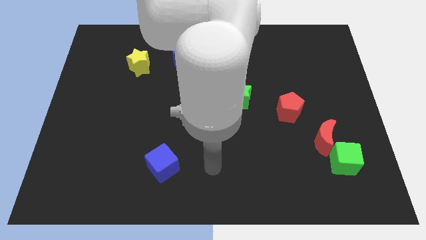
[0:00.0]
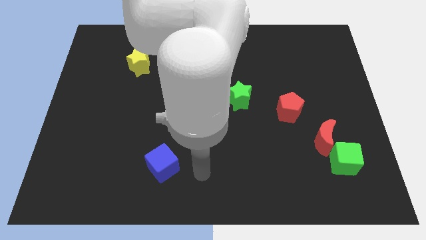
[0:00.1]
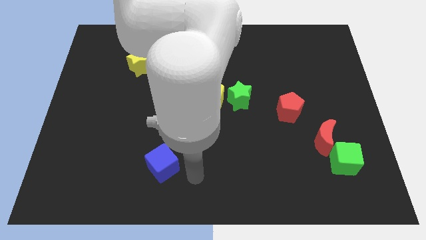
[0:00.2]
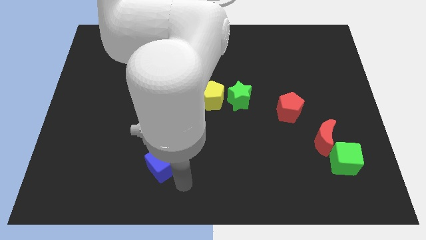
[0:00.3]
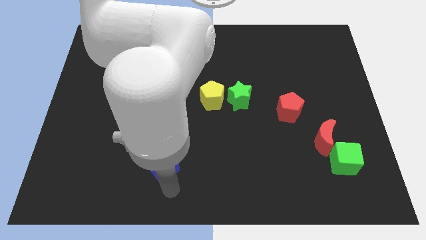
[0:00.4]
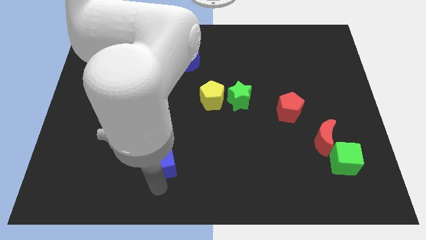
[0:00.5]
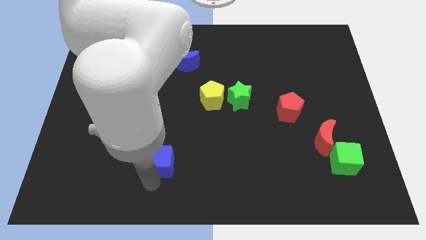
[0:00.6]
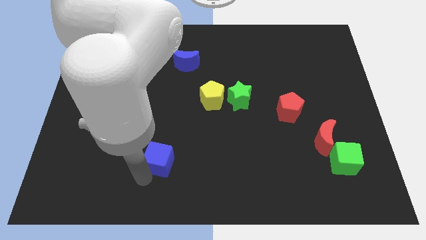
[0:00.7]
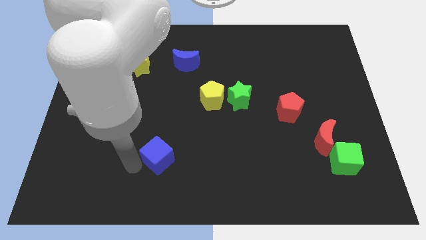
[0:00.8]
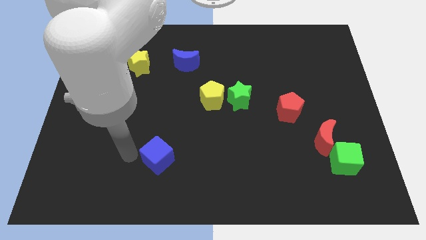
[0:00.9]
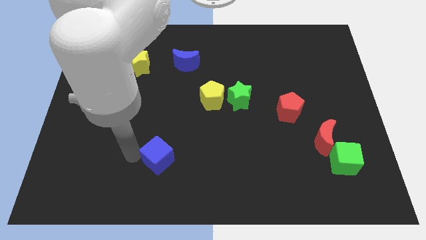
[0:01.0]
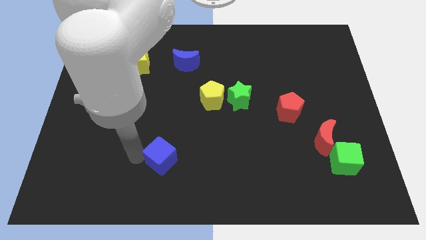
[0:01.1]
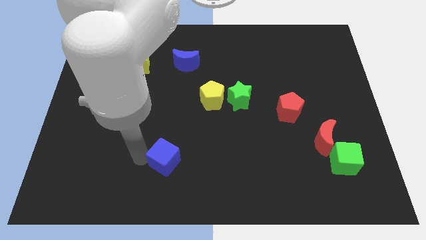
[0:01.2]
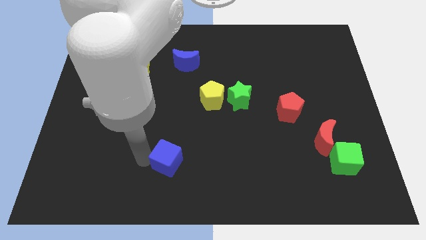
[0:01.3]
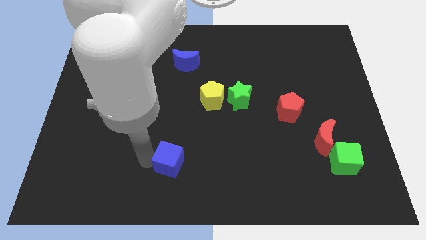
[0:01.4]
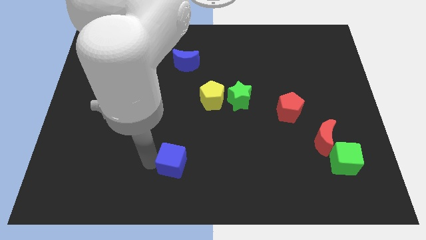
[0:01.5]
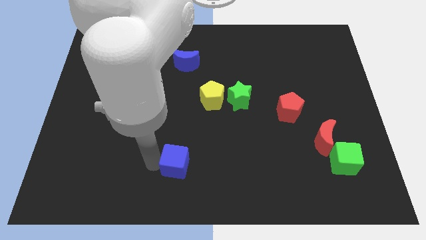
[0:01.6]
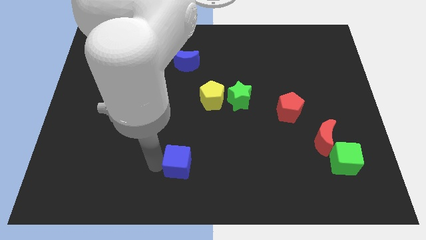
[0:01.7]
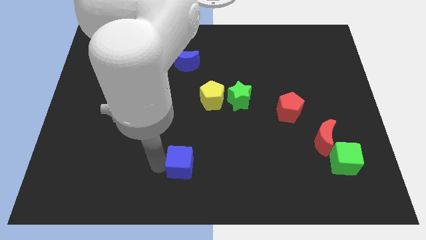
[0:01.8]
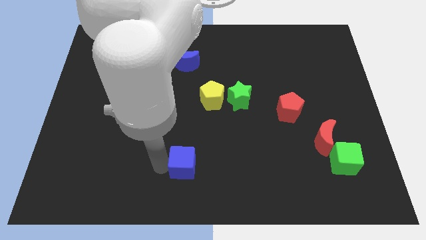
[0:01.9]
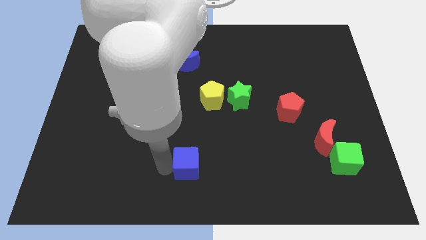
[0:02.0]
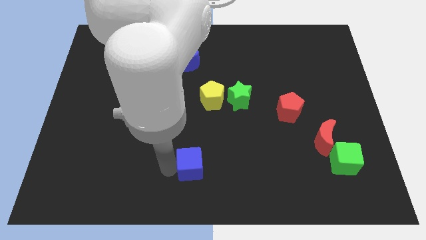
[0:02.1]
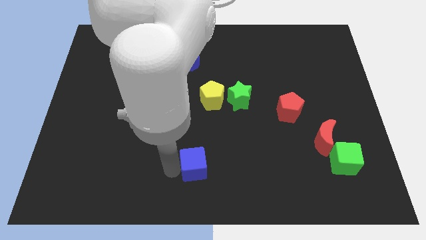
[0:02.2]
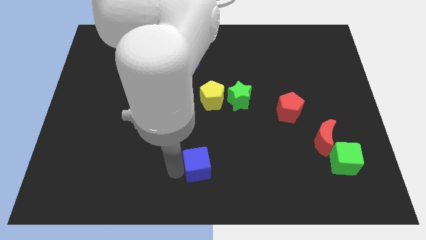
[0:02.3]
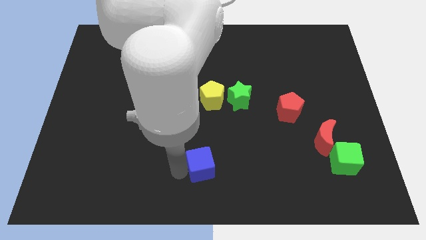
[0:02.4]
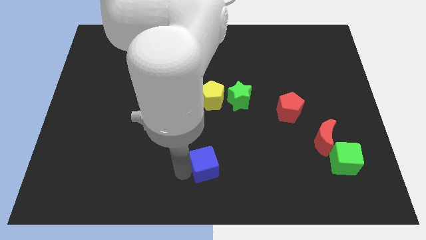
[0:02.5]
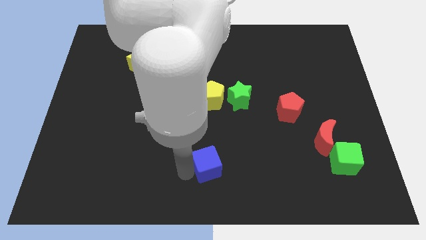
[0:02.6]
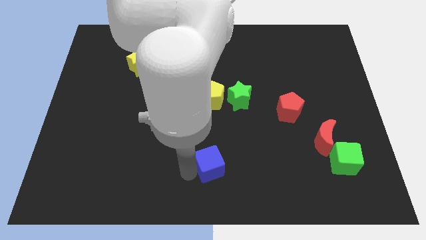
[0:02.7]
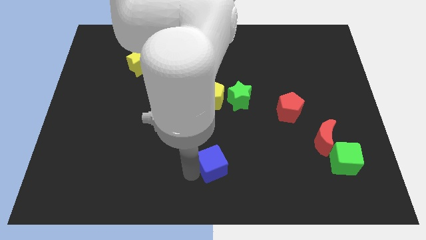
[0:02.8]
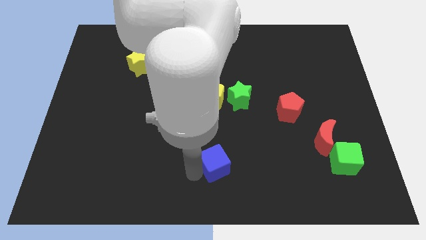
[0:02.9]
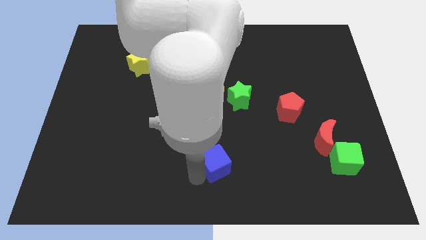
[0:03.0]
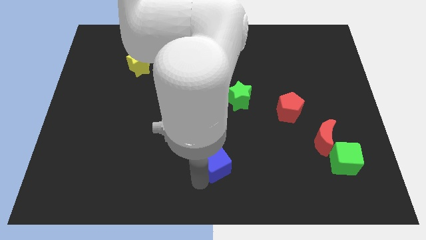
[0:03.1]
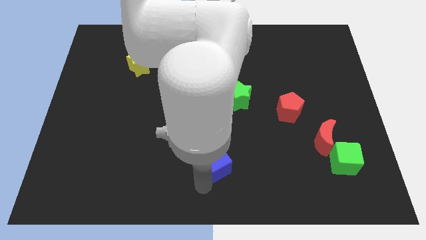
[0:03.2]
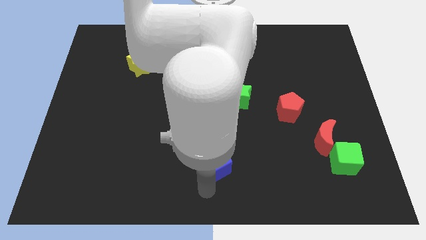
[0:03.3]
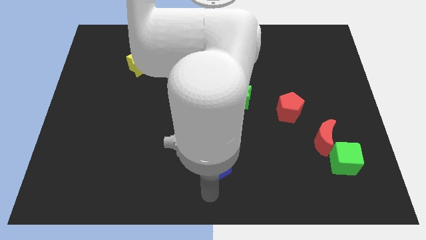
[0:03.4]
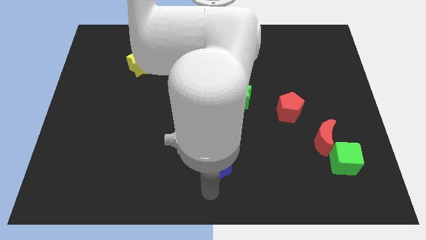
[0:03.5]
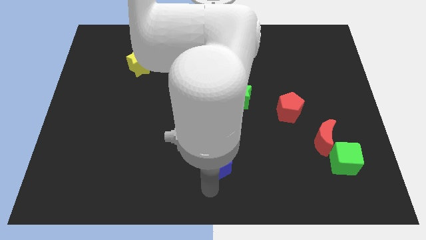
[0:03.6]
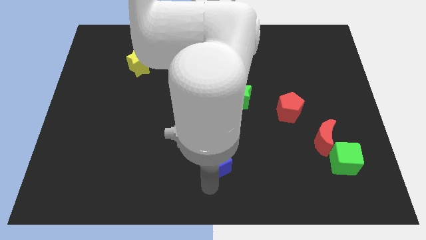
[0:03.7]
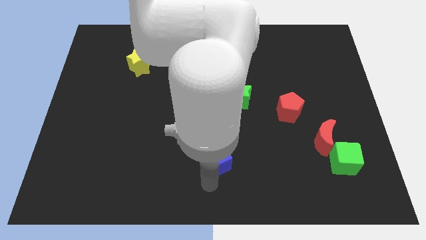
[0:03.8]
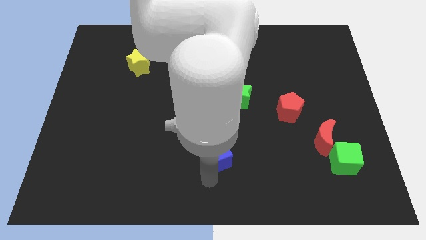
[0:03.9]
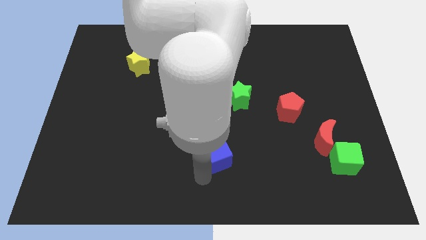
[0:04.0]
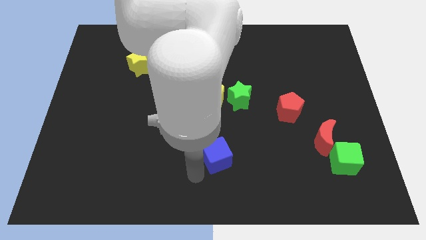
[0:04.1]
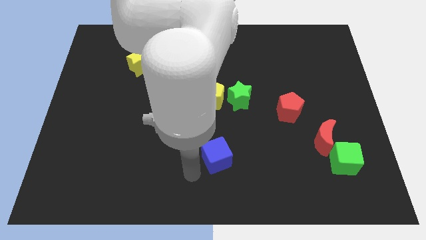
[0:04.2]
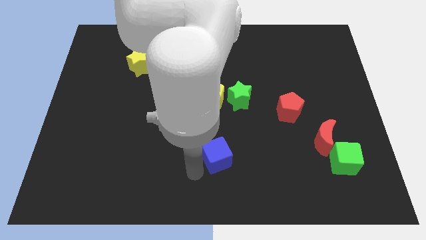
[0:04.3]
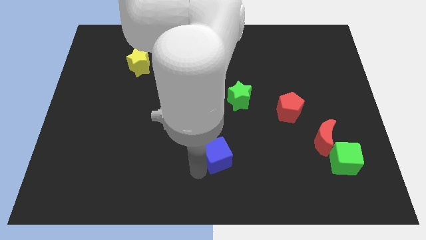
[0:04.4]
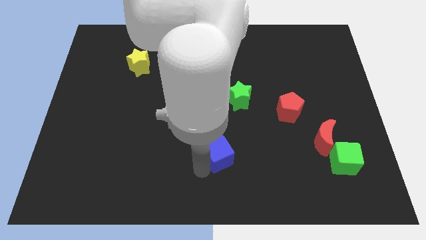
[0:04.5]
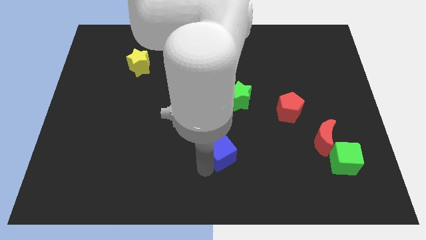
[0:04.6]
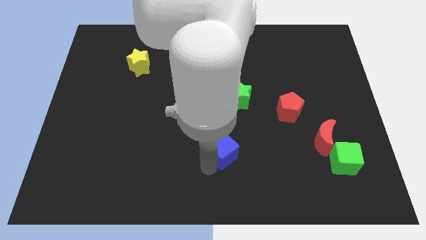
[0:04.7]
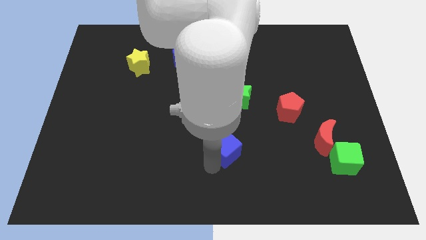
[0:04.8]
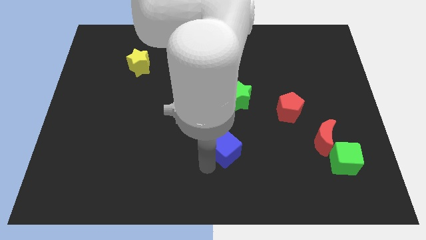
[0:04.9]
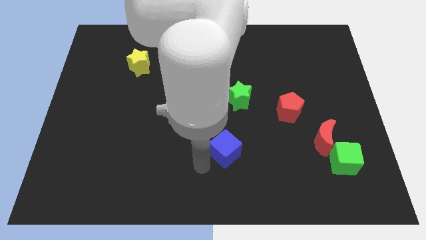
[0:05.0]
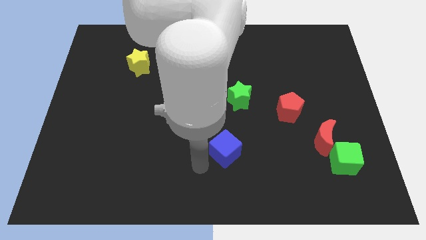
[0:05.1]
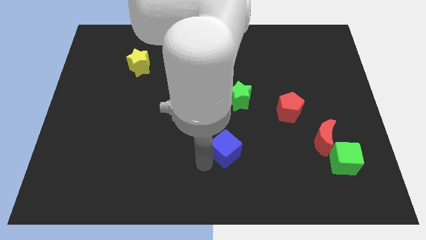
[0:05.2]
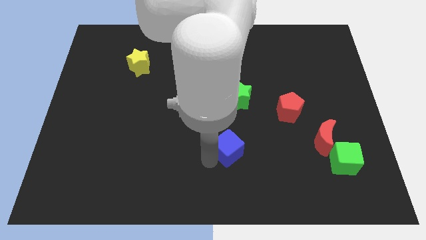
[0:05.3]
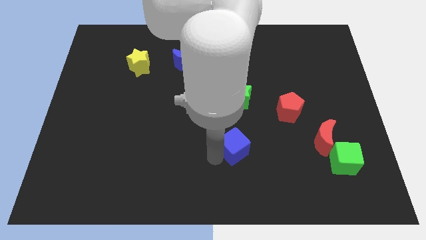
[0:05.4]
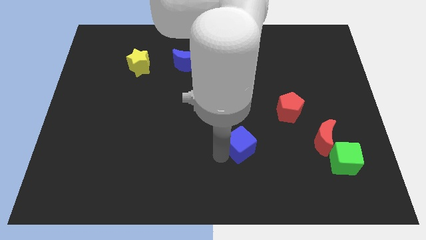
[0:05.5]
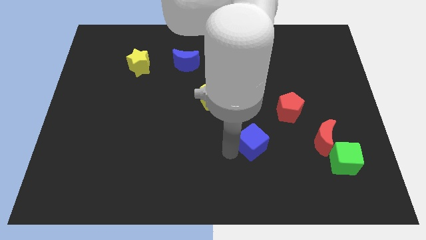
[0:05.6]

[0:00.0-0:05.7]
move the blue cube to the bottom left of the red pentagon

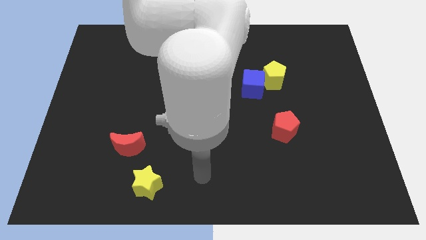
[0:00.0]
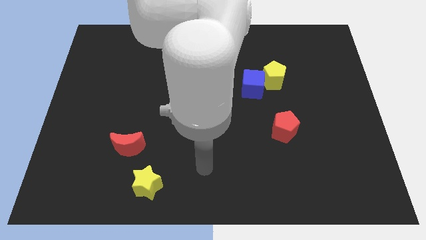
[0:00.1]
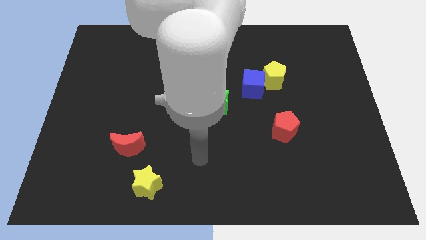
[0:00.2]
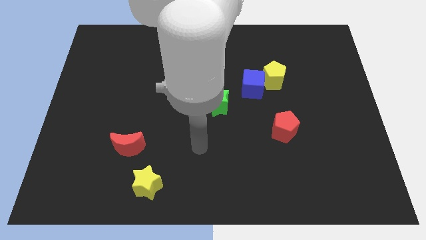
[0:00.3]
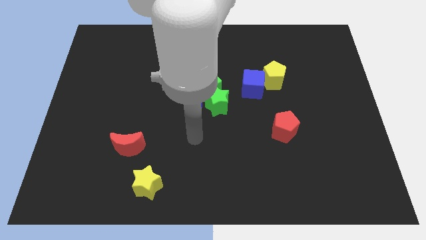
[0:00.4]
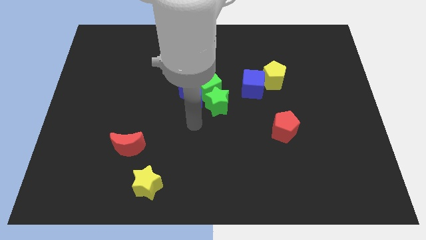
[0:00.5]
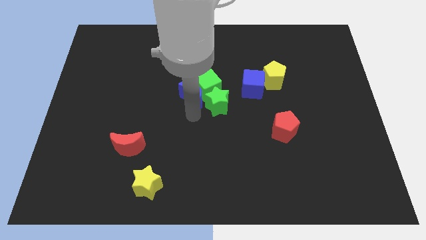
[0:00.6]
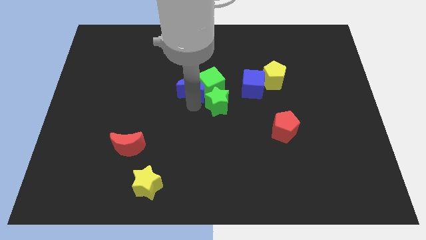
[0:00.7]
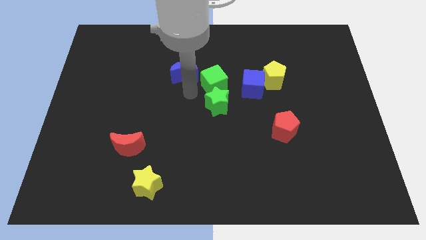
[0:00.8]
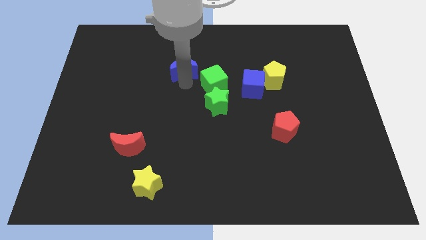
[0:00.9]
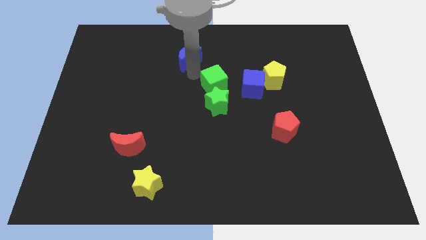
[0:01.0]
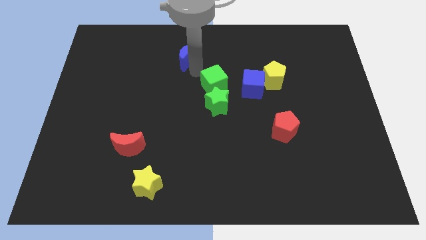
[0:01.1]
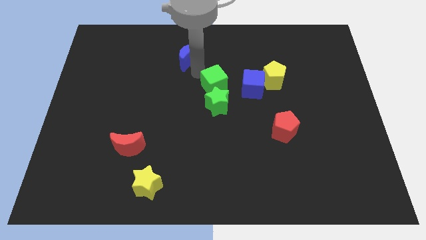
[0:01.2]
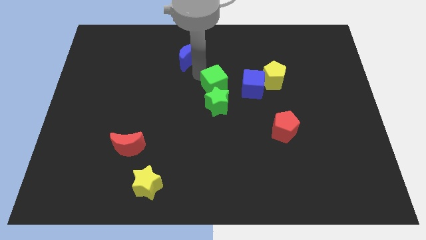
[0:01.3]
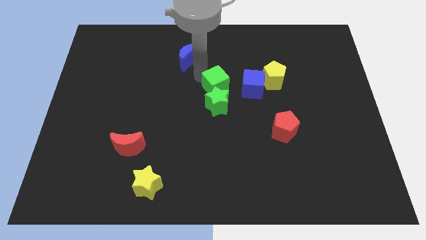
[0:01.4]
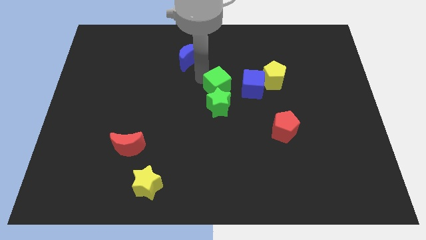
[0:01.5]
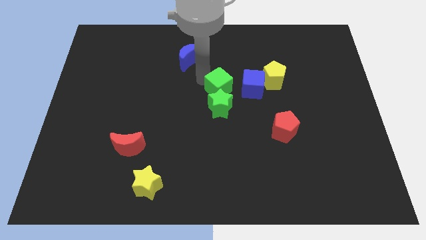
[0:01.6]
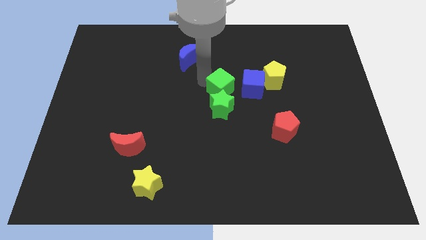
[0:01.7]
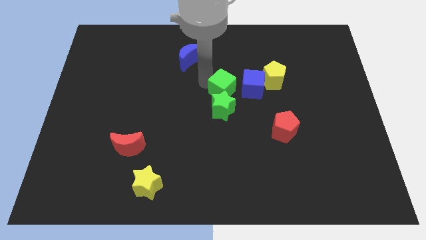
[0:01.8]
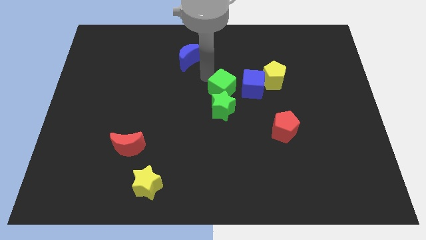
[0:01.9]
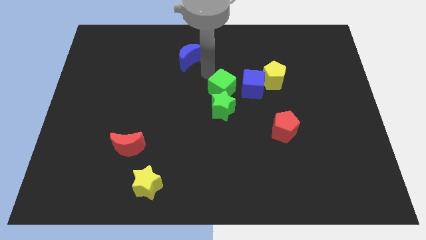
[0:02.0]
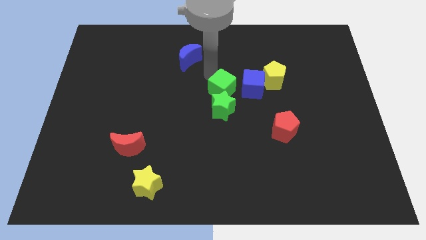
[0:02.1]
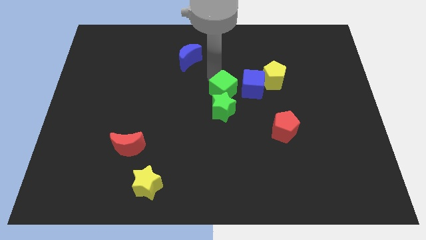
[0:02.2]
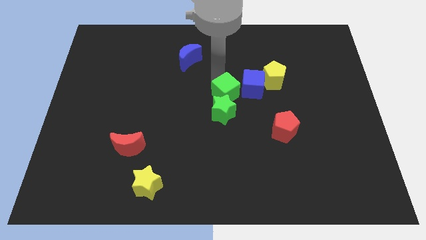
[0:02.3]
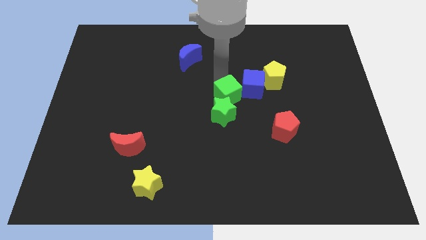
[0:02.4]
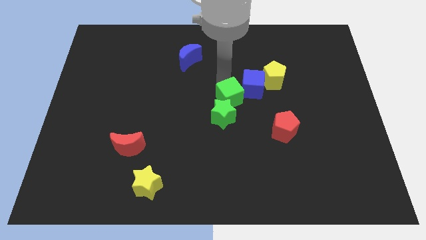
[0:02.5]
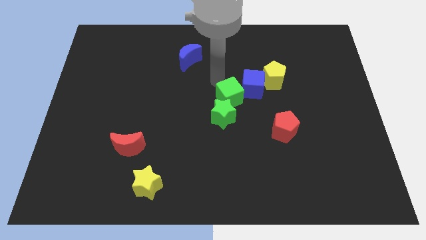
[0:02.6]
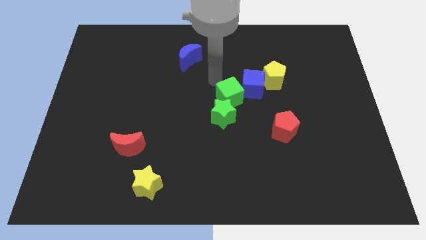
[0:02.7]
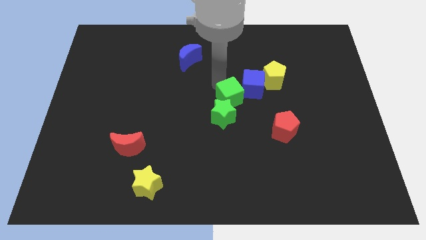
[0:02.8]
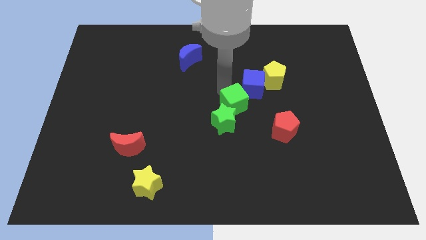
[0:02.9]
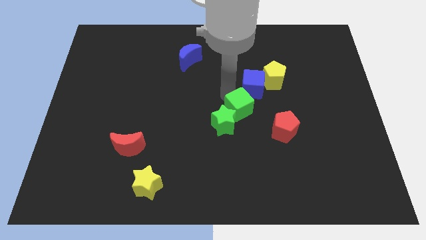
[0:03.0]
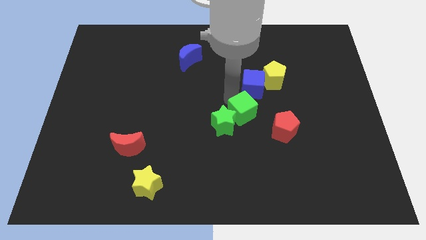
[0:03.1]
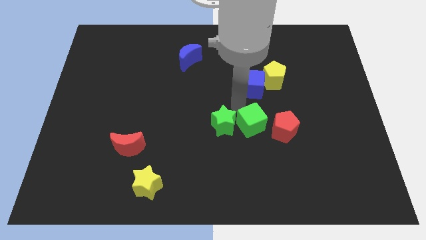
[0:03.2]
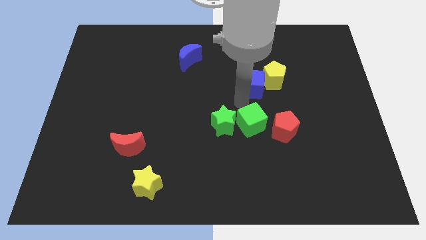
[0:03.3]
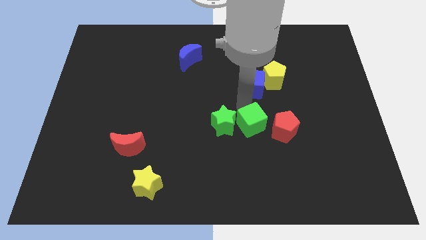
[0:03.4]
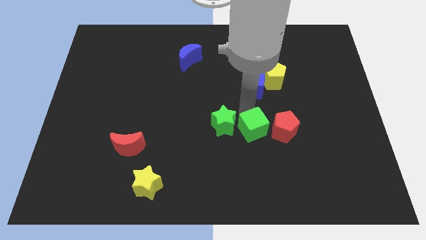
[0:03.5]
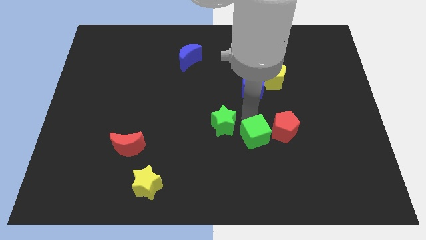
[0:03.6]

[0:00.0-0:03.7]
push the green cube diagonally down and to the left of the red pentagon
